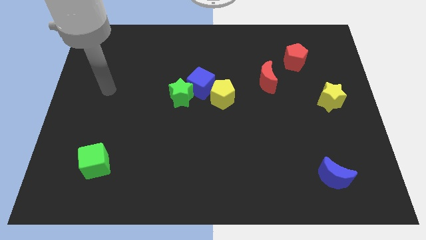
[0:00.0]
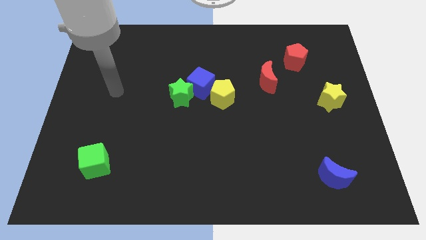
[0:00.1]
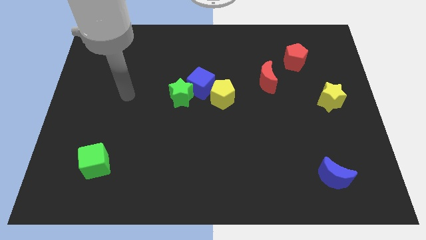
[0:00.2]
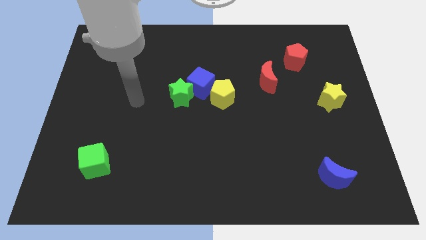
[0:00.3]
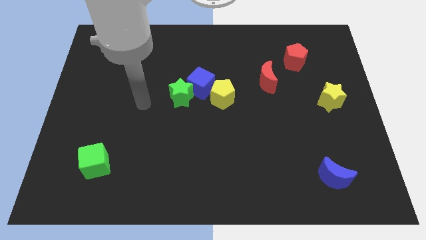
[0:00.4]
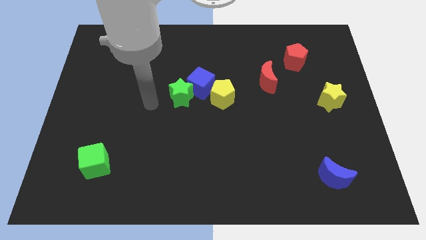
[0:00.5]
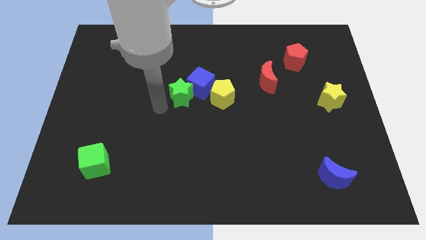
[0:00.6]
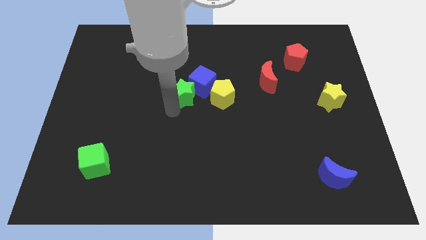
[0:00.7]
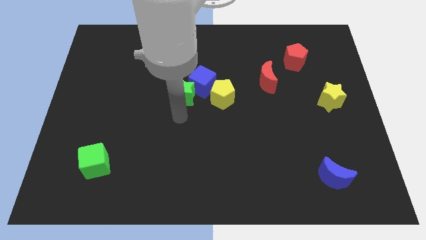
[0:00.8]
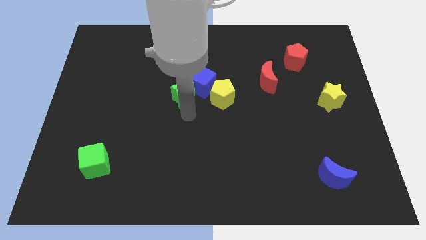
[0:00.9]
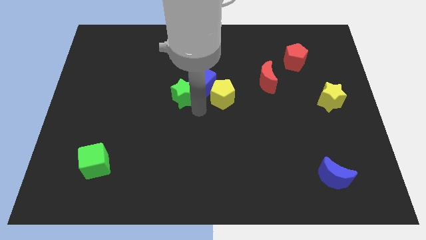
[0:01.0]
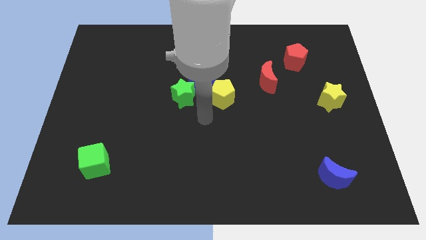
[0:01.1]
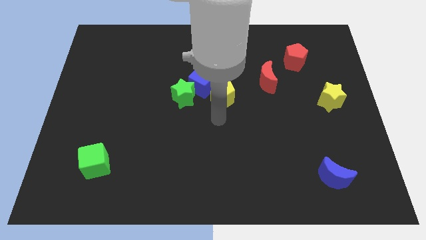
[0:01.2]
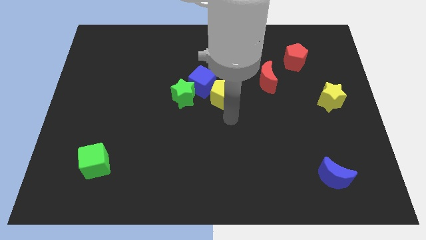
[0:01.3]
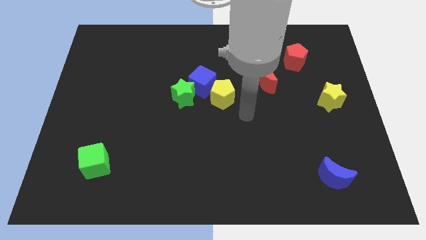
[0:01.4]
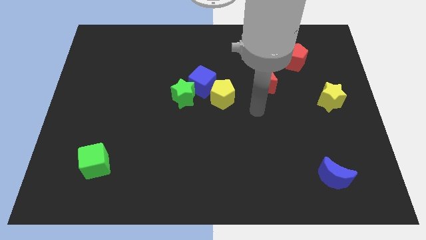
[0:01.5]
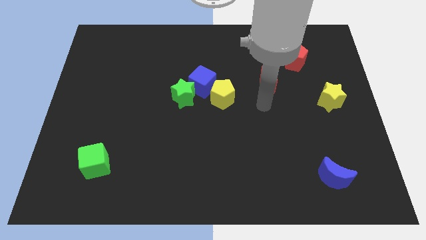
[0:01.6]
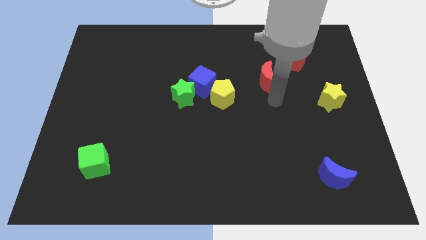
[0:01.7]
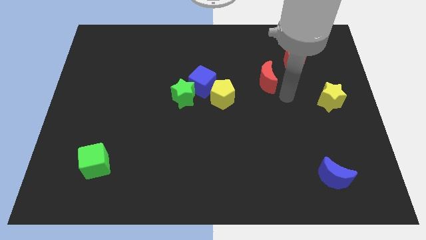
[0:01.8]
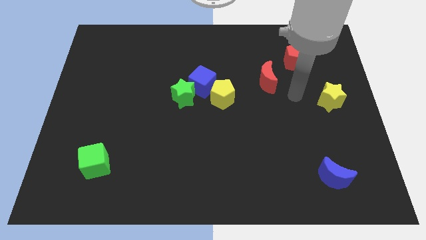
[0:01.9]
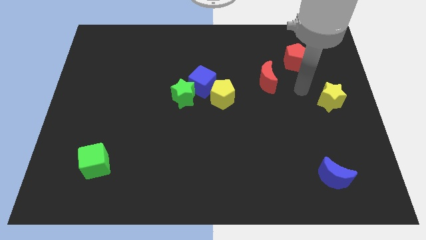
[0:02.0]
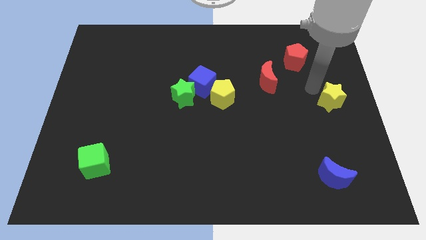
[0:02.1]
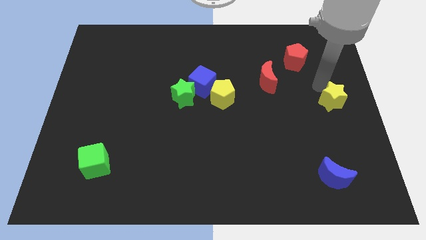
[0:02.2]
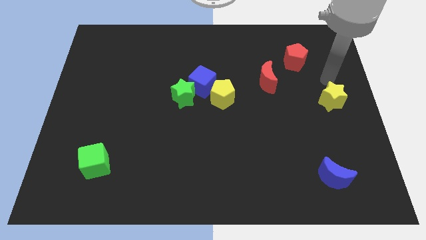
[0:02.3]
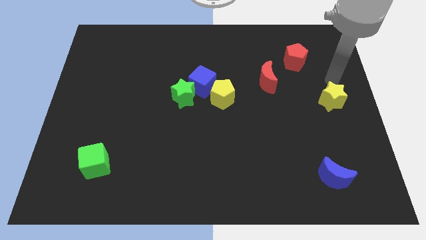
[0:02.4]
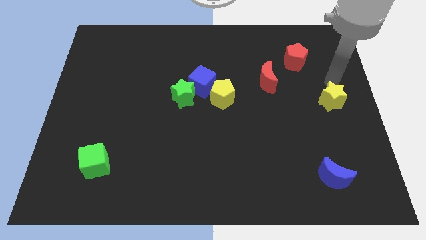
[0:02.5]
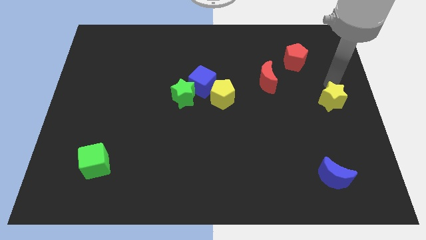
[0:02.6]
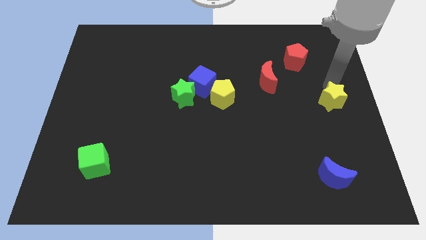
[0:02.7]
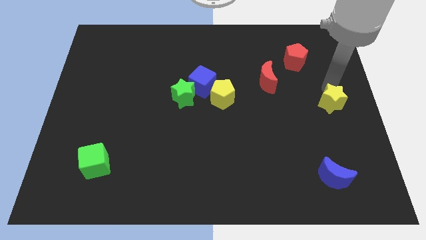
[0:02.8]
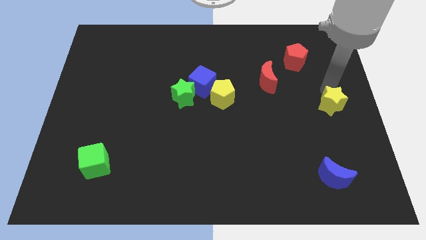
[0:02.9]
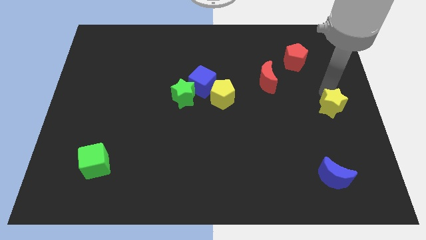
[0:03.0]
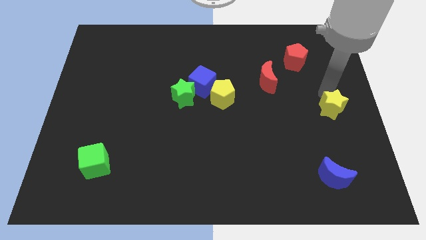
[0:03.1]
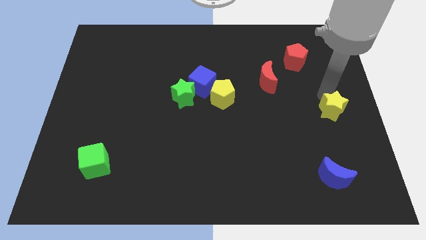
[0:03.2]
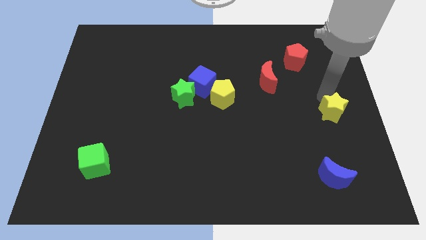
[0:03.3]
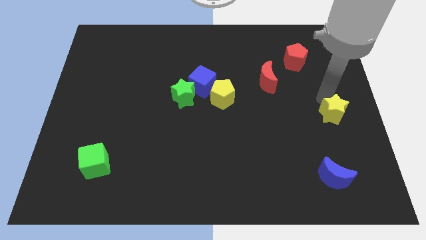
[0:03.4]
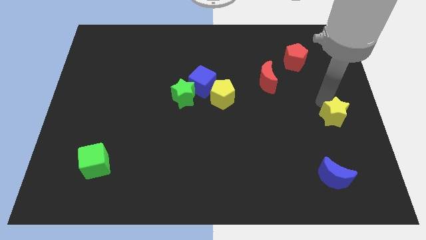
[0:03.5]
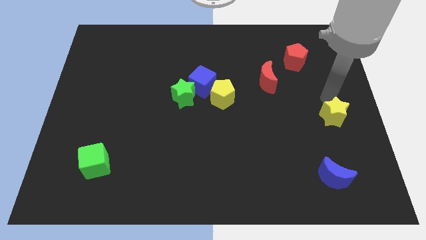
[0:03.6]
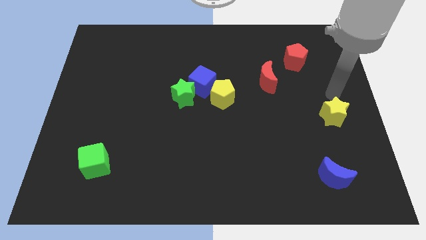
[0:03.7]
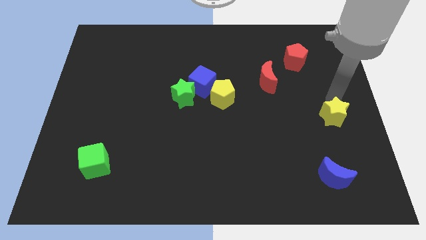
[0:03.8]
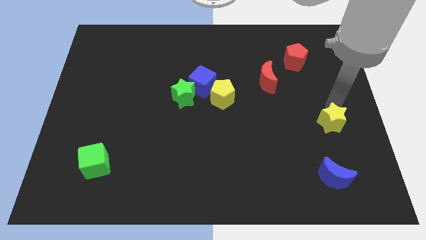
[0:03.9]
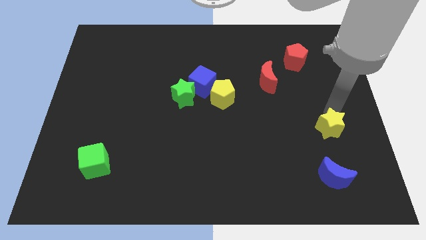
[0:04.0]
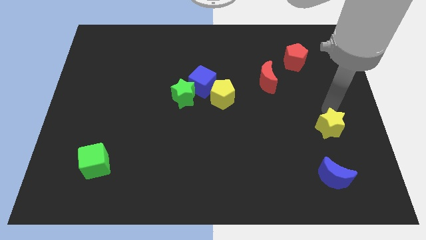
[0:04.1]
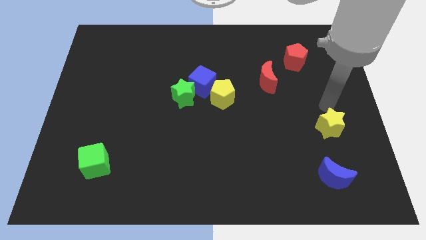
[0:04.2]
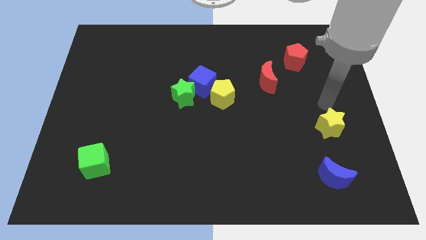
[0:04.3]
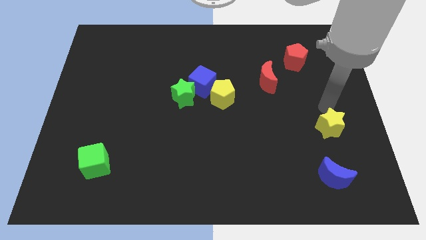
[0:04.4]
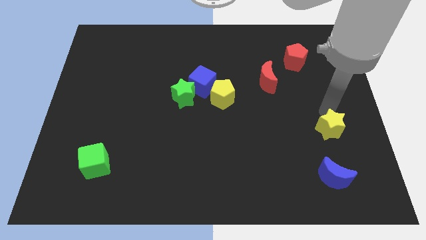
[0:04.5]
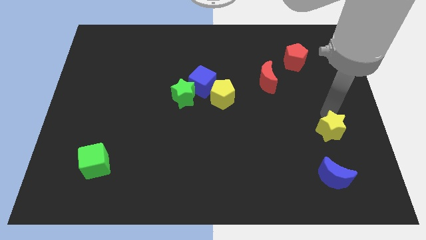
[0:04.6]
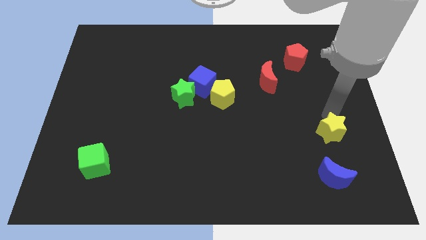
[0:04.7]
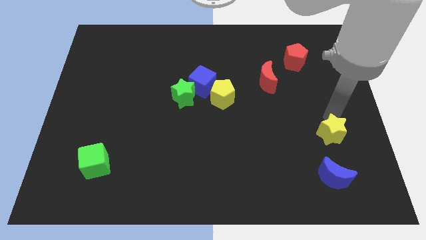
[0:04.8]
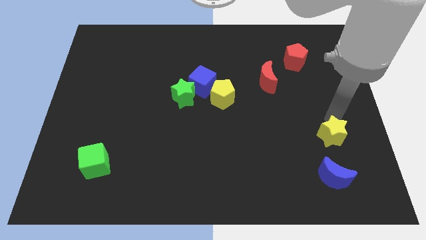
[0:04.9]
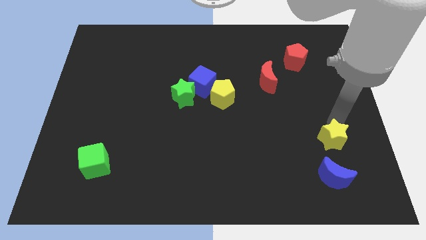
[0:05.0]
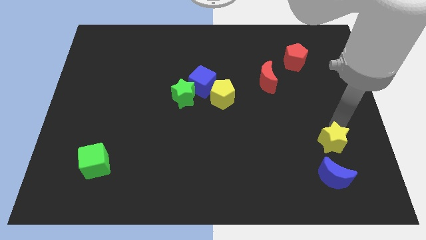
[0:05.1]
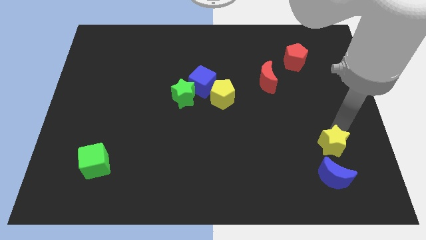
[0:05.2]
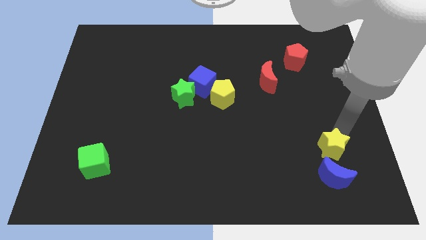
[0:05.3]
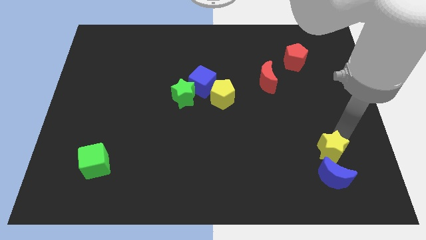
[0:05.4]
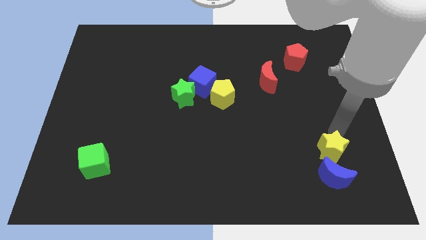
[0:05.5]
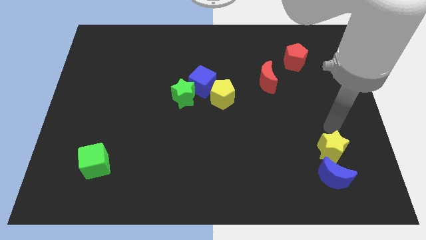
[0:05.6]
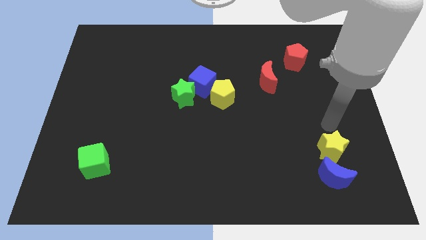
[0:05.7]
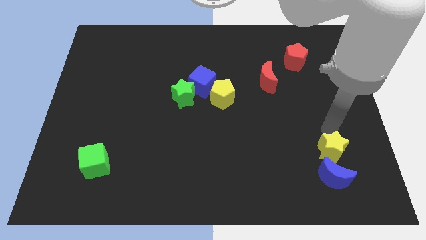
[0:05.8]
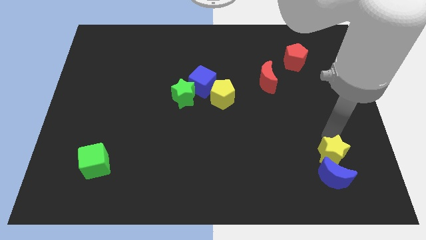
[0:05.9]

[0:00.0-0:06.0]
put the yellow star close to the blue moon

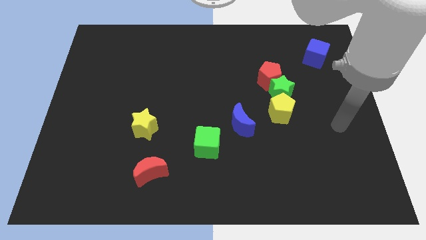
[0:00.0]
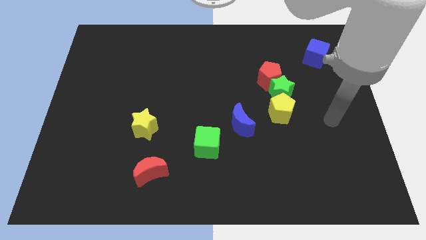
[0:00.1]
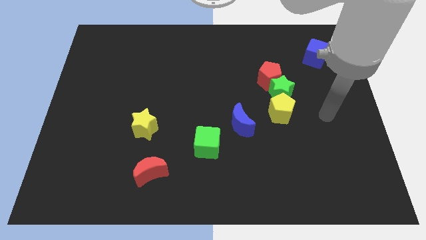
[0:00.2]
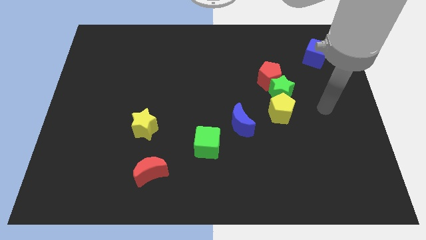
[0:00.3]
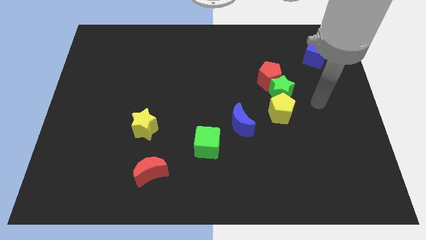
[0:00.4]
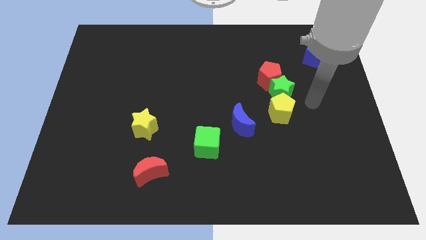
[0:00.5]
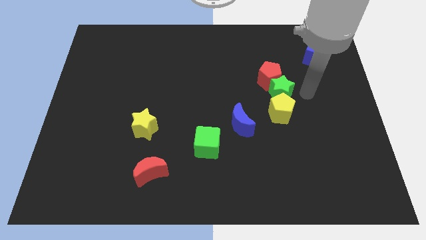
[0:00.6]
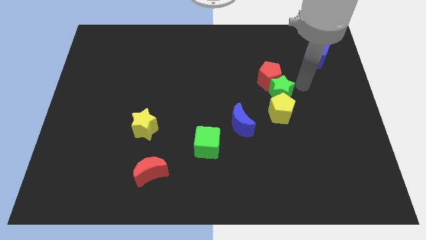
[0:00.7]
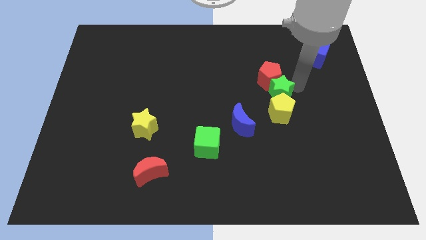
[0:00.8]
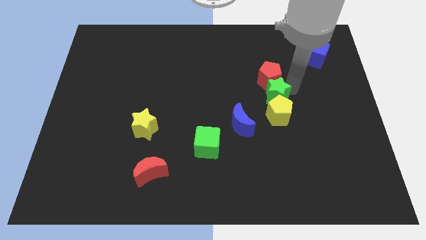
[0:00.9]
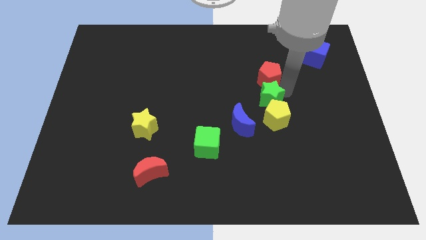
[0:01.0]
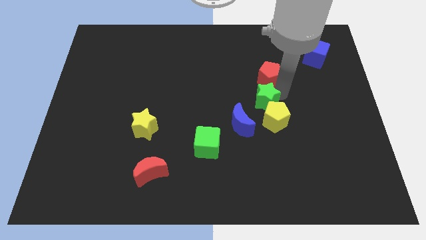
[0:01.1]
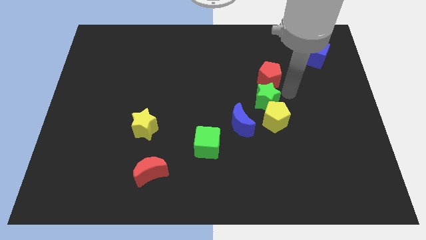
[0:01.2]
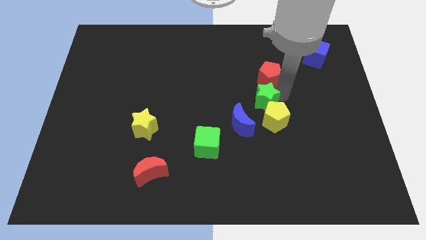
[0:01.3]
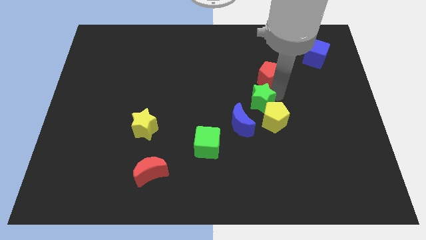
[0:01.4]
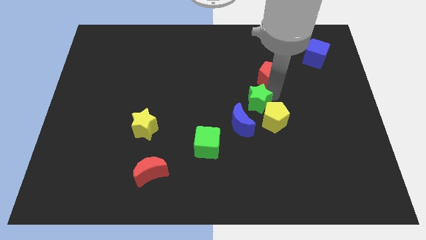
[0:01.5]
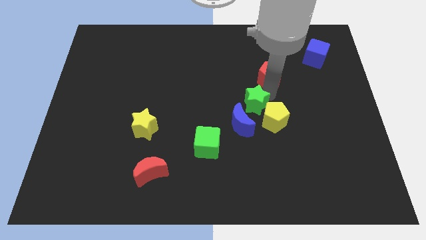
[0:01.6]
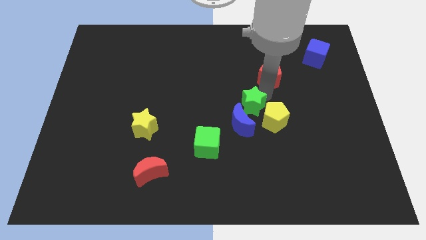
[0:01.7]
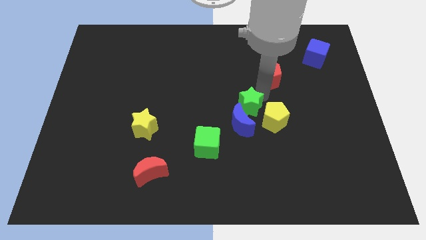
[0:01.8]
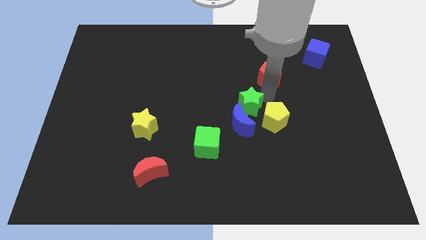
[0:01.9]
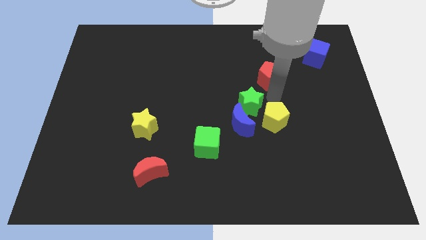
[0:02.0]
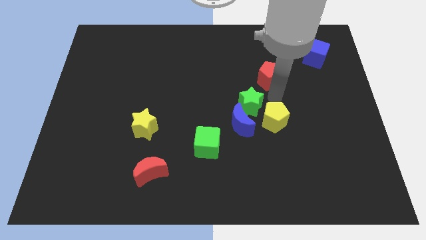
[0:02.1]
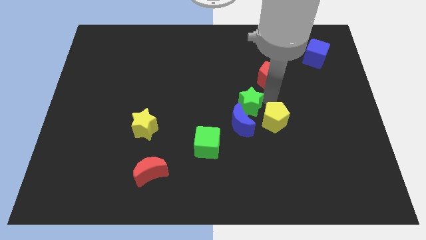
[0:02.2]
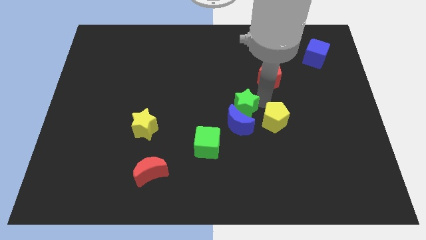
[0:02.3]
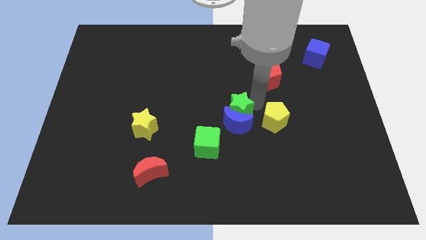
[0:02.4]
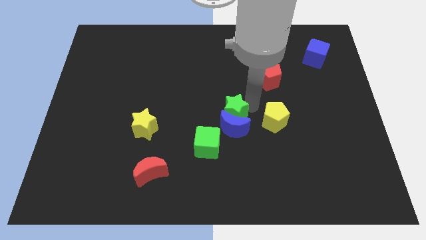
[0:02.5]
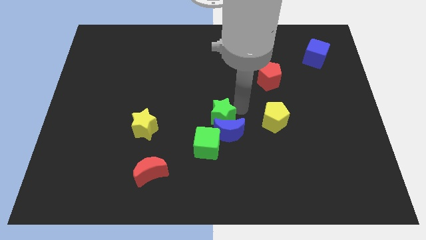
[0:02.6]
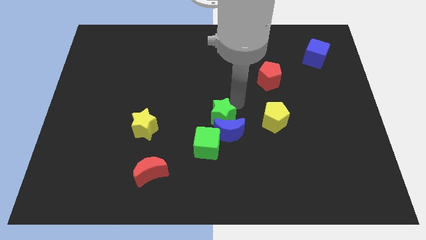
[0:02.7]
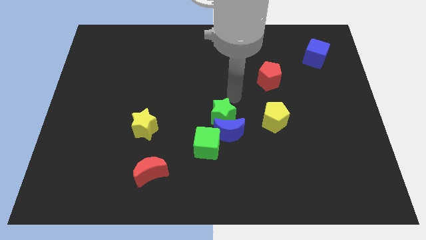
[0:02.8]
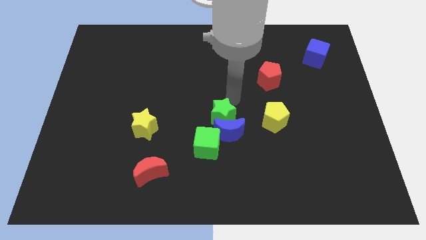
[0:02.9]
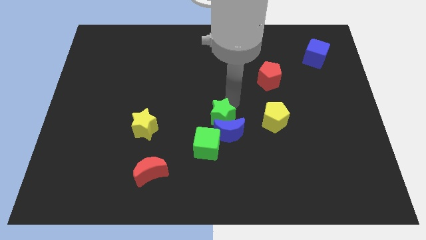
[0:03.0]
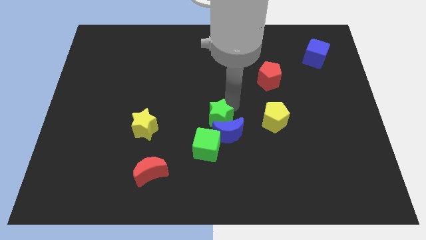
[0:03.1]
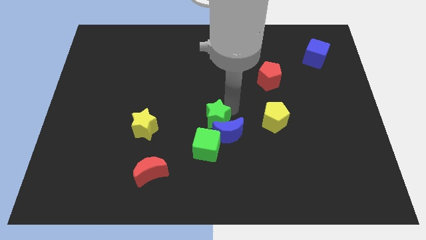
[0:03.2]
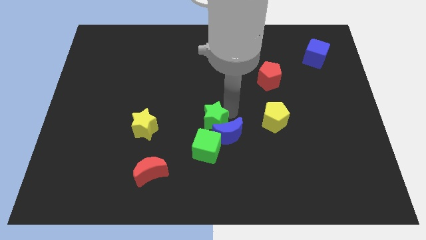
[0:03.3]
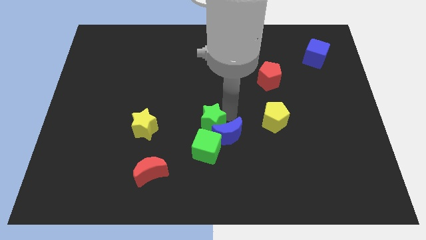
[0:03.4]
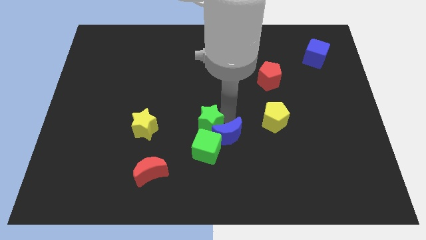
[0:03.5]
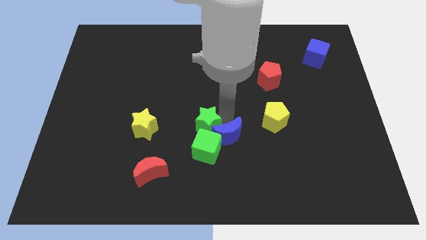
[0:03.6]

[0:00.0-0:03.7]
push the green star to the green cube
